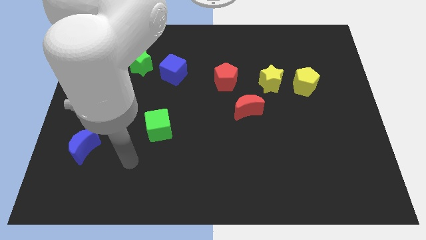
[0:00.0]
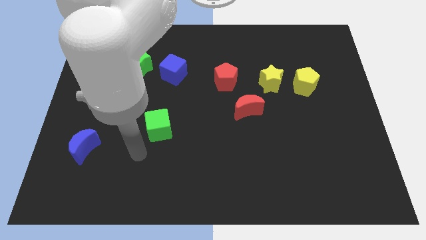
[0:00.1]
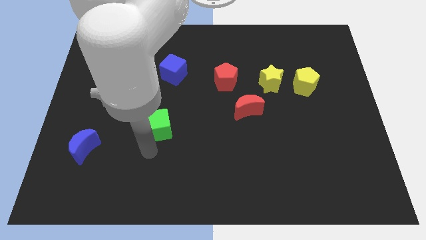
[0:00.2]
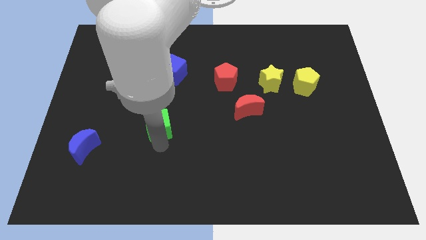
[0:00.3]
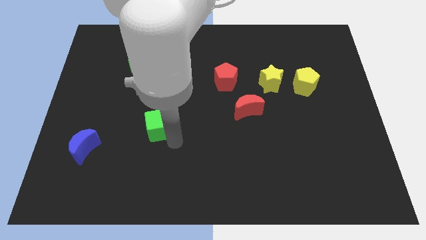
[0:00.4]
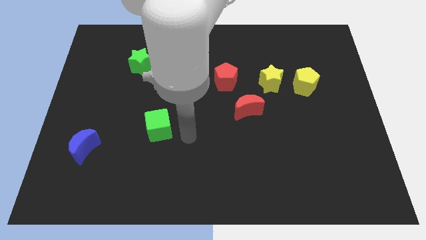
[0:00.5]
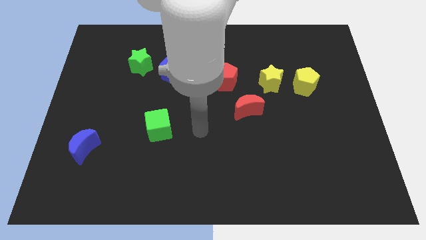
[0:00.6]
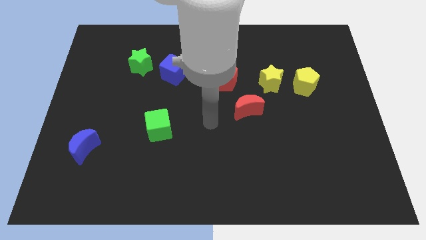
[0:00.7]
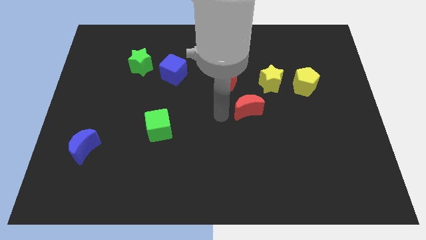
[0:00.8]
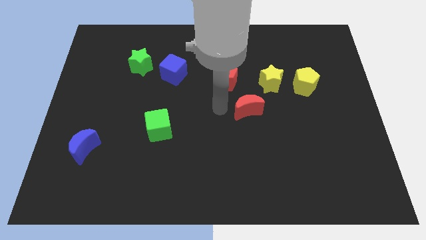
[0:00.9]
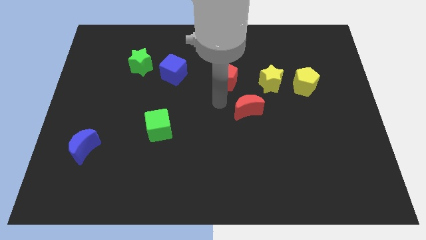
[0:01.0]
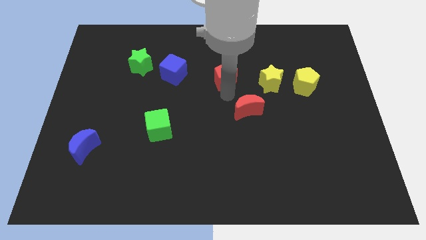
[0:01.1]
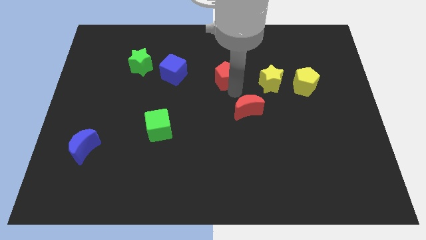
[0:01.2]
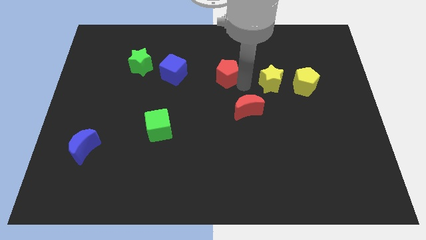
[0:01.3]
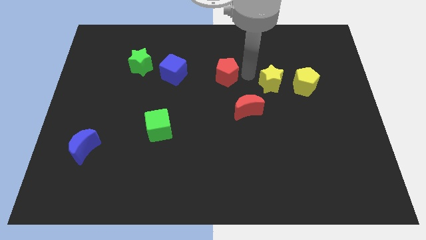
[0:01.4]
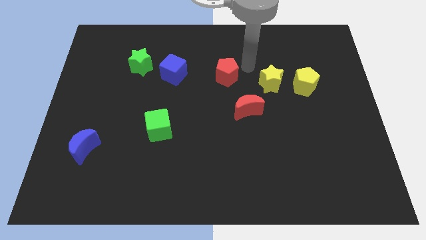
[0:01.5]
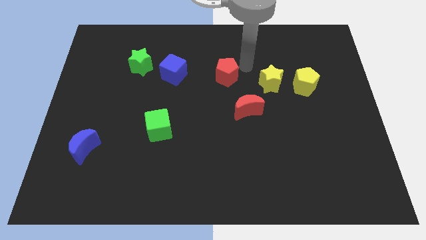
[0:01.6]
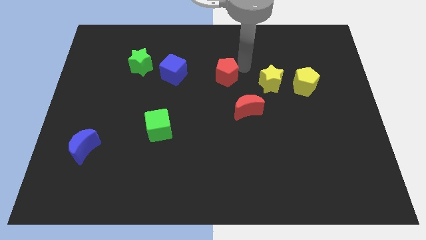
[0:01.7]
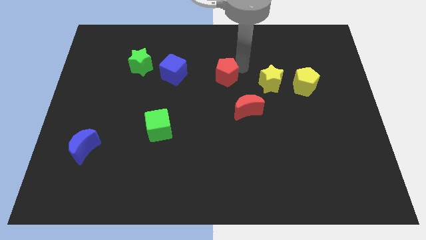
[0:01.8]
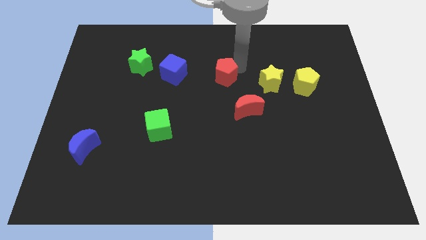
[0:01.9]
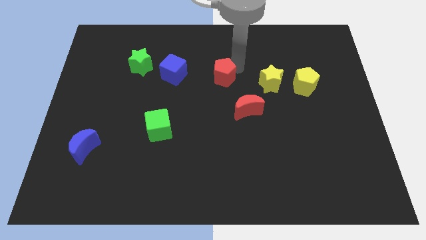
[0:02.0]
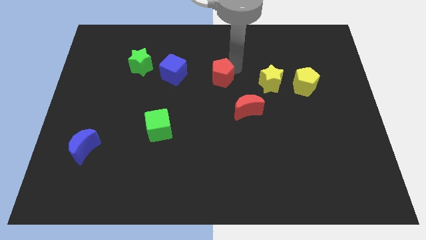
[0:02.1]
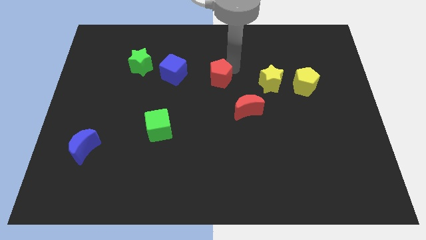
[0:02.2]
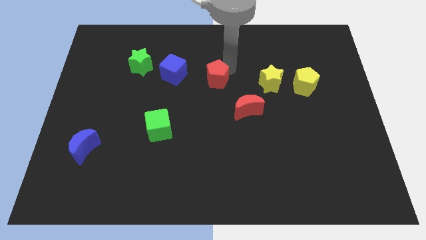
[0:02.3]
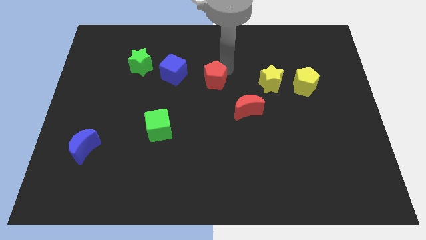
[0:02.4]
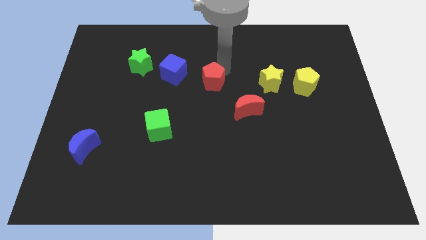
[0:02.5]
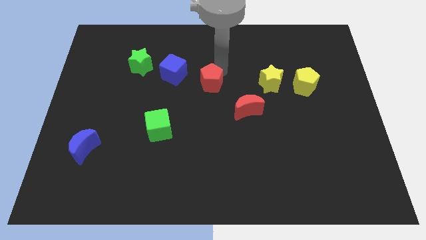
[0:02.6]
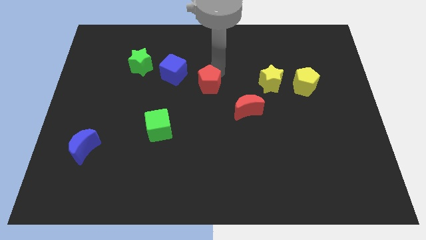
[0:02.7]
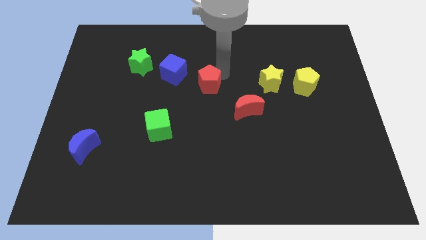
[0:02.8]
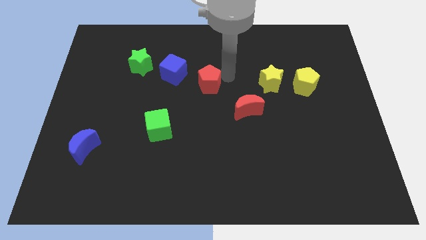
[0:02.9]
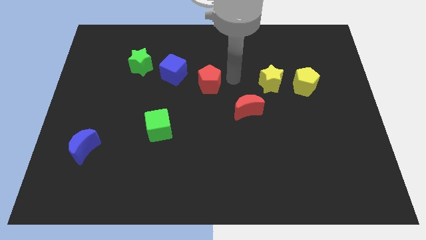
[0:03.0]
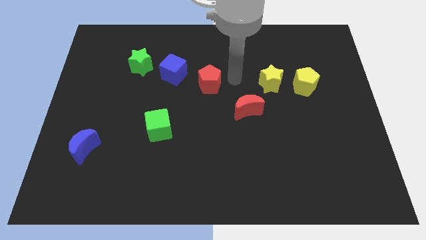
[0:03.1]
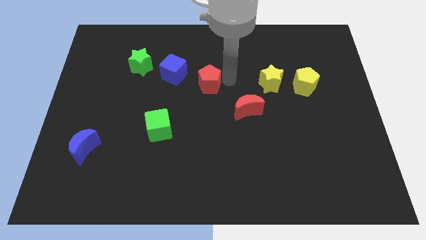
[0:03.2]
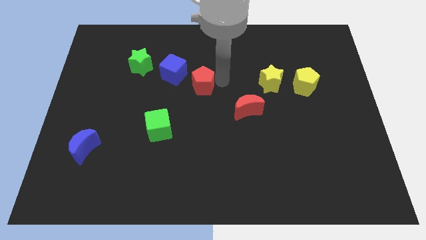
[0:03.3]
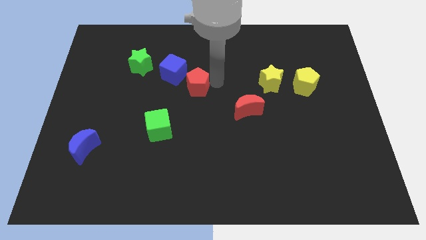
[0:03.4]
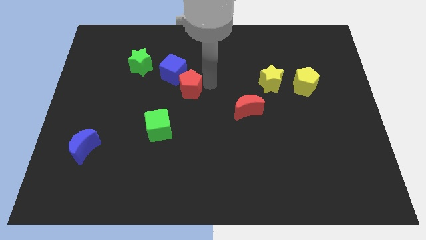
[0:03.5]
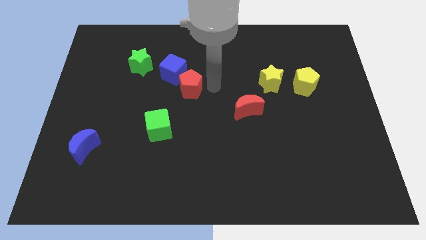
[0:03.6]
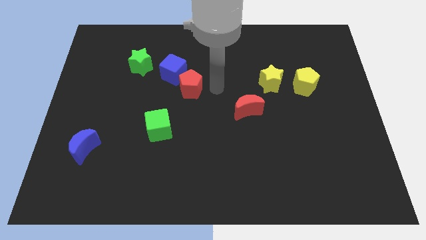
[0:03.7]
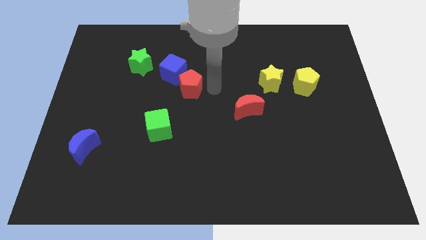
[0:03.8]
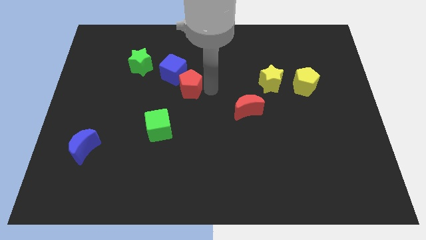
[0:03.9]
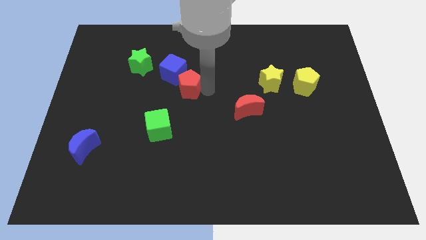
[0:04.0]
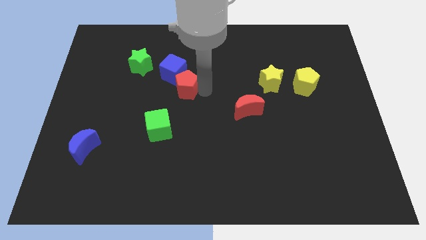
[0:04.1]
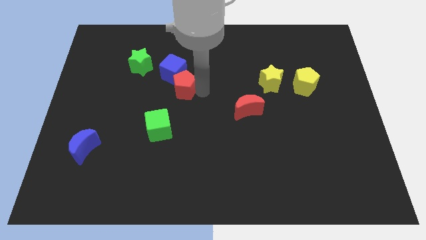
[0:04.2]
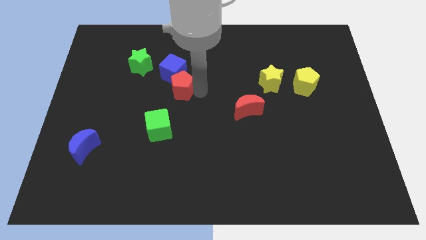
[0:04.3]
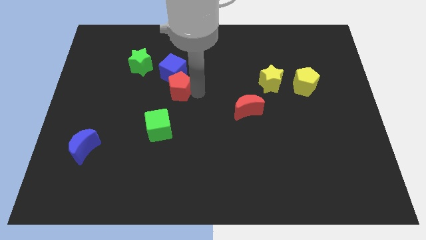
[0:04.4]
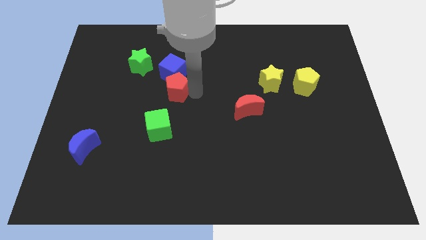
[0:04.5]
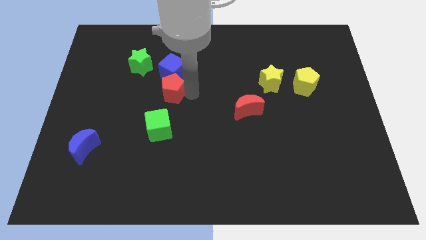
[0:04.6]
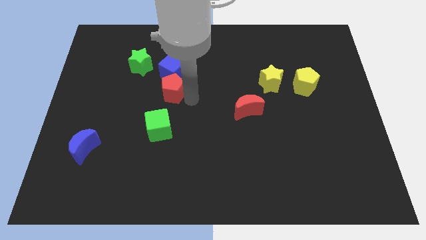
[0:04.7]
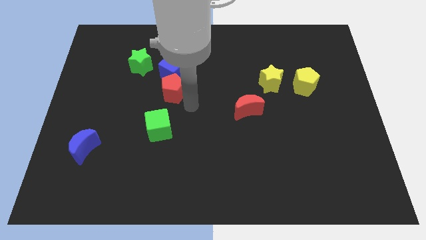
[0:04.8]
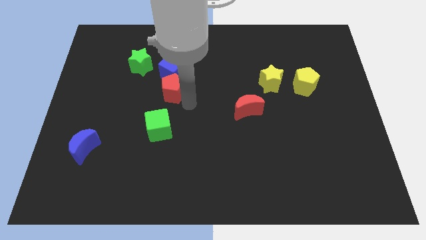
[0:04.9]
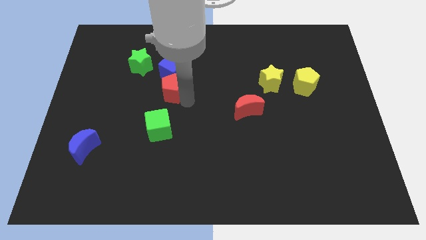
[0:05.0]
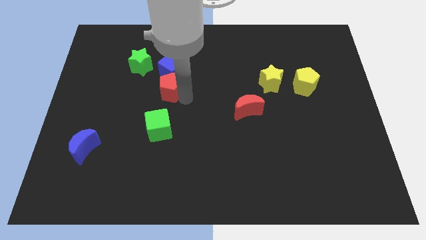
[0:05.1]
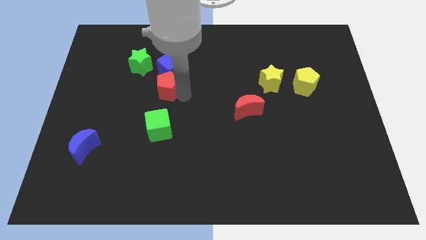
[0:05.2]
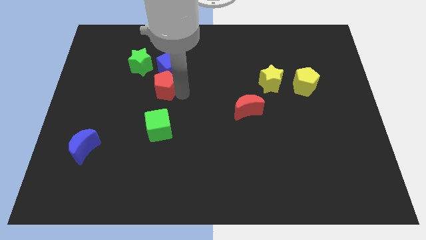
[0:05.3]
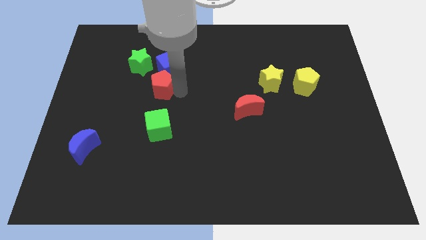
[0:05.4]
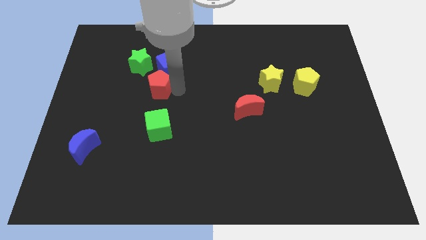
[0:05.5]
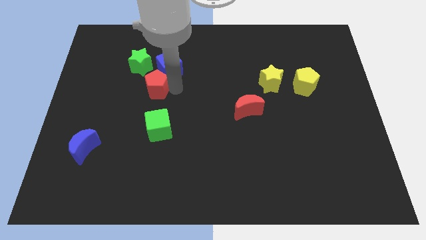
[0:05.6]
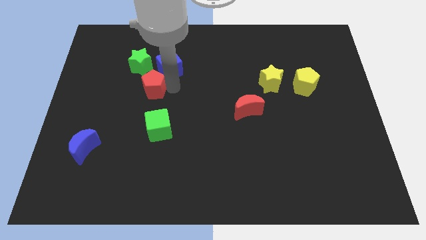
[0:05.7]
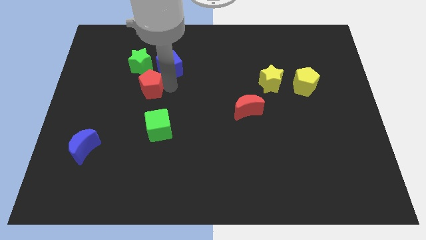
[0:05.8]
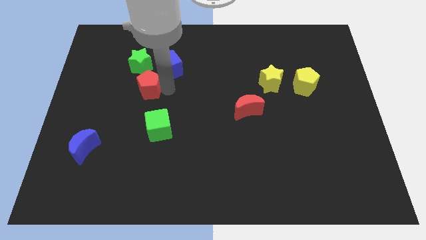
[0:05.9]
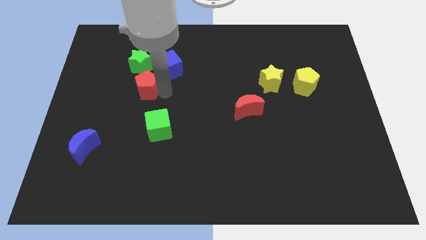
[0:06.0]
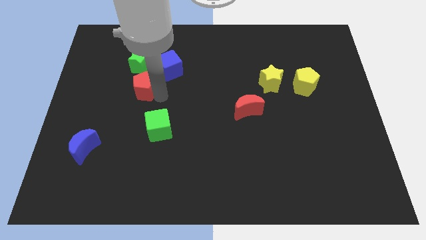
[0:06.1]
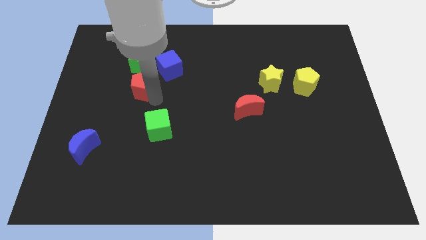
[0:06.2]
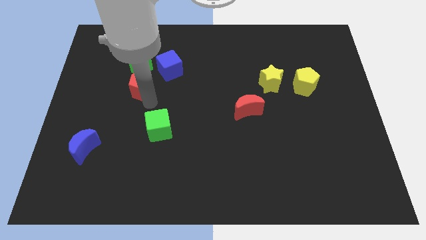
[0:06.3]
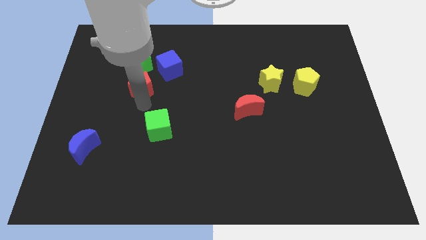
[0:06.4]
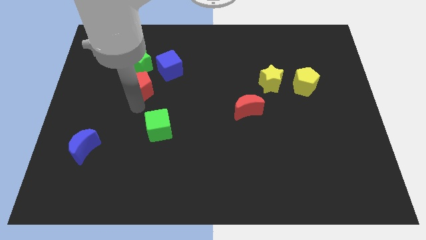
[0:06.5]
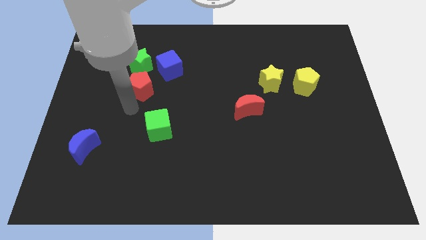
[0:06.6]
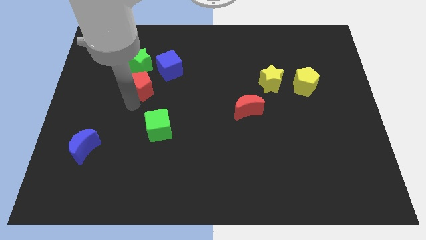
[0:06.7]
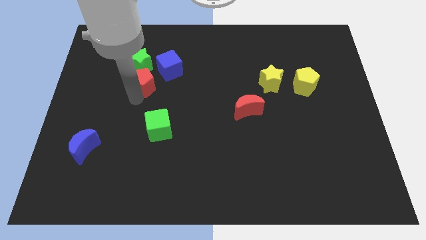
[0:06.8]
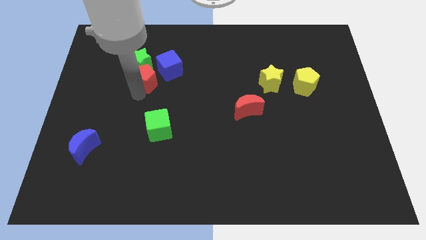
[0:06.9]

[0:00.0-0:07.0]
push the red pentagon to the green star

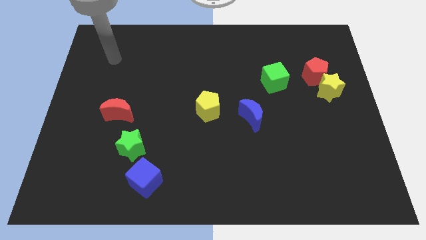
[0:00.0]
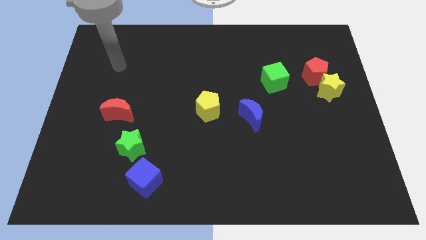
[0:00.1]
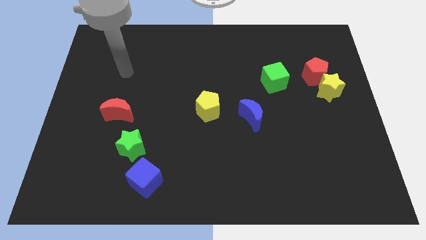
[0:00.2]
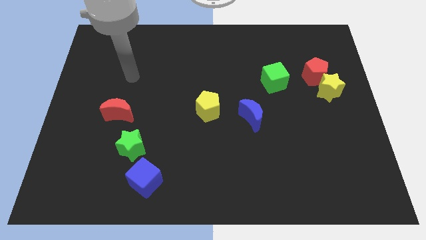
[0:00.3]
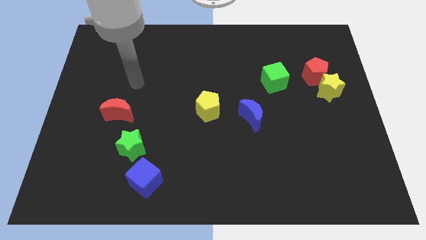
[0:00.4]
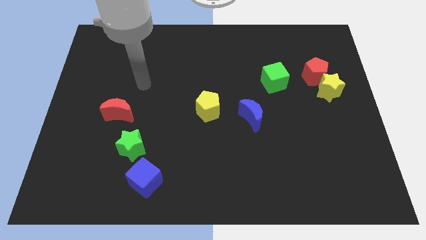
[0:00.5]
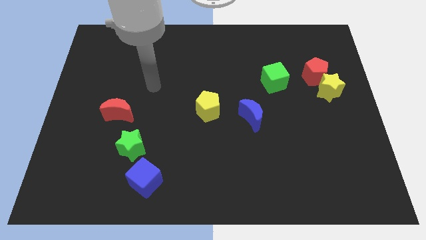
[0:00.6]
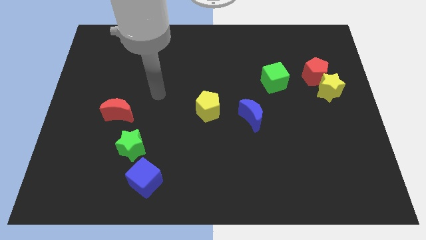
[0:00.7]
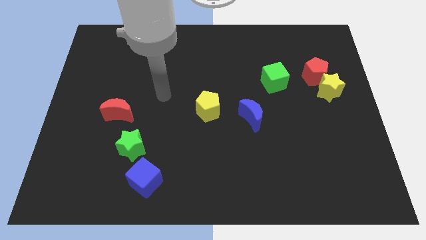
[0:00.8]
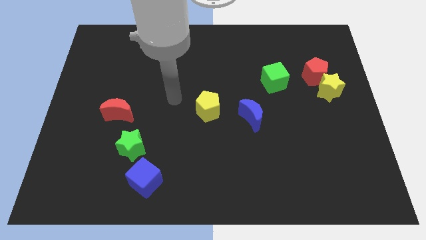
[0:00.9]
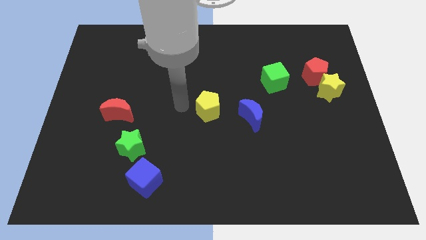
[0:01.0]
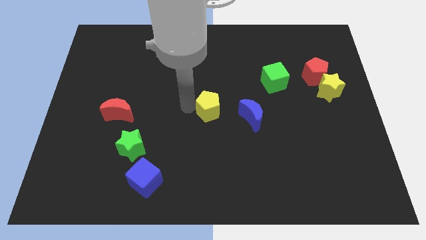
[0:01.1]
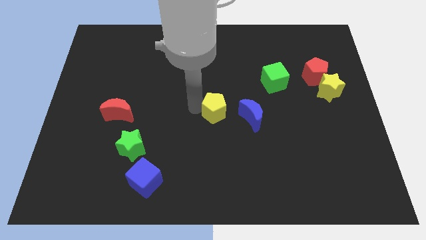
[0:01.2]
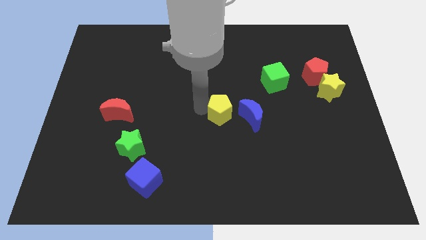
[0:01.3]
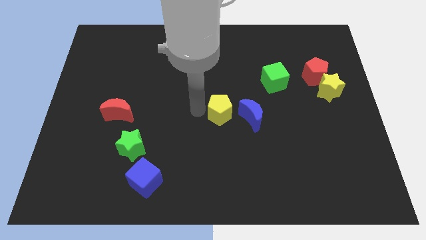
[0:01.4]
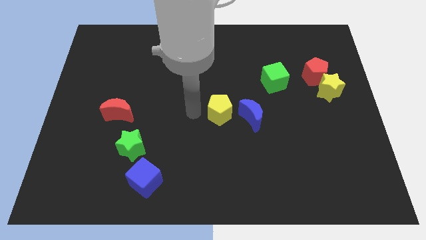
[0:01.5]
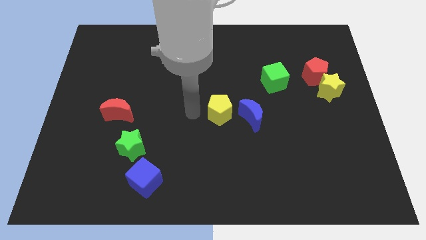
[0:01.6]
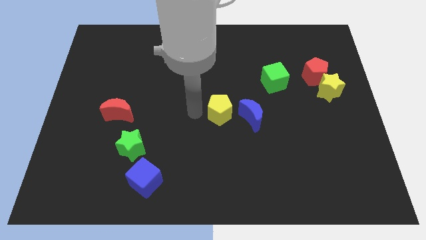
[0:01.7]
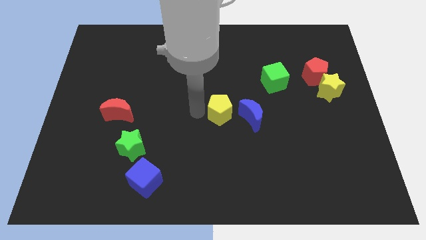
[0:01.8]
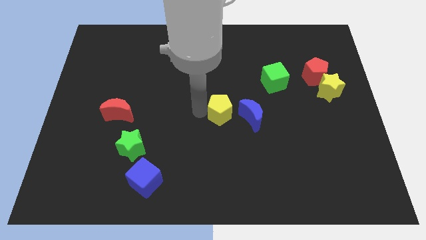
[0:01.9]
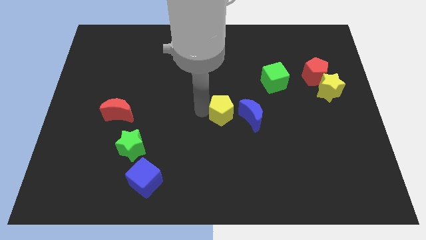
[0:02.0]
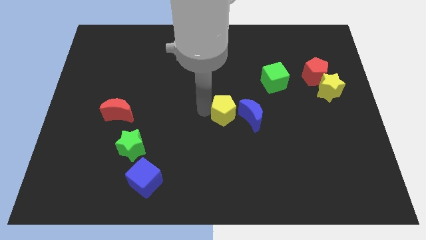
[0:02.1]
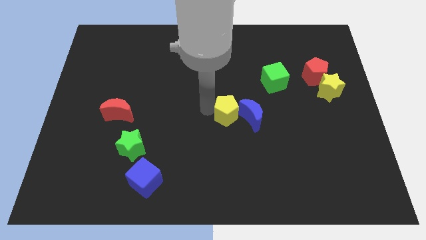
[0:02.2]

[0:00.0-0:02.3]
move the yellow pentagon towards the blue moon
